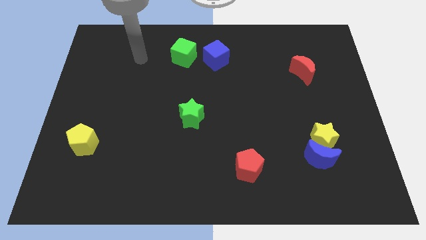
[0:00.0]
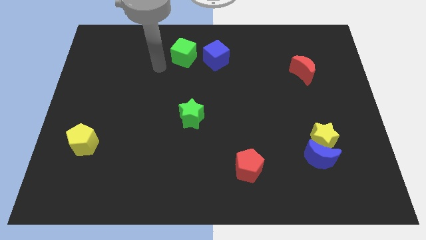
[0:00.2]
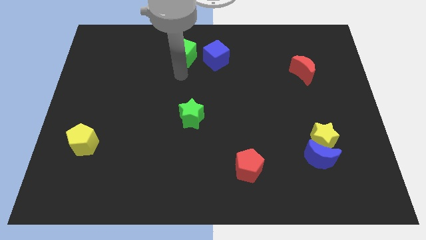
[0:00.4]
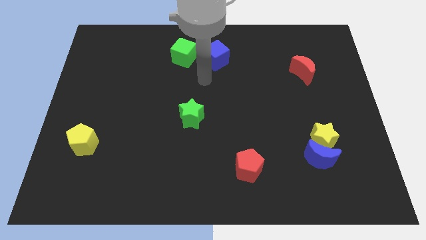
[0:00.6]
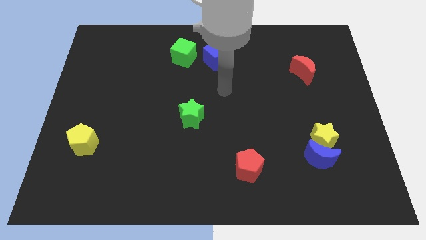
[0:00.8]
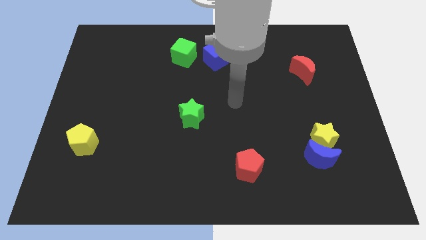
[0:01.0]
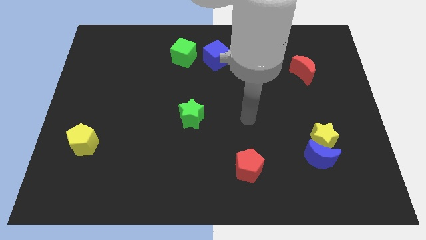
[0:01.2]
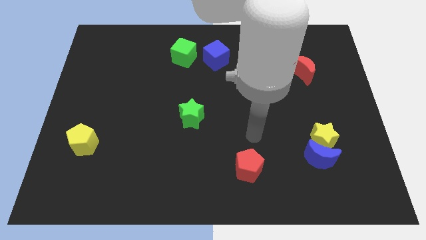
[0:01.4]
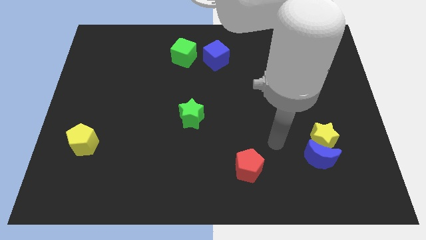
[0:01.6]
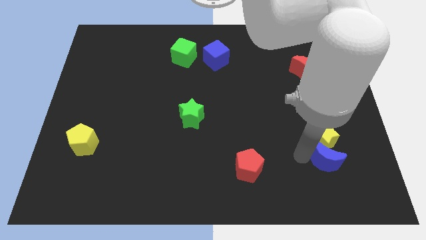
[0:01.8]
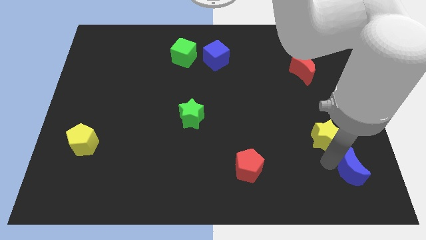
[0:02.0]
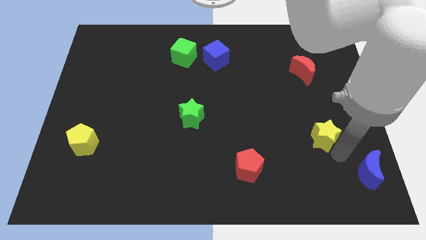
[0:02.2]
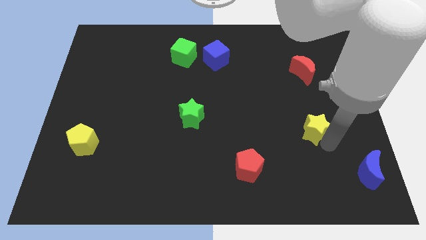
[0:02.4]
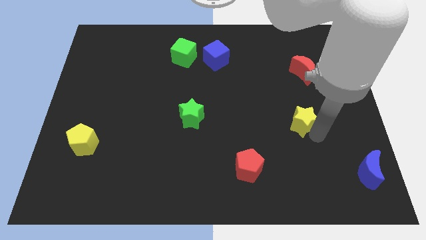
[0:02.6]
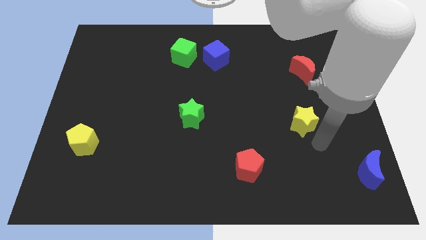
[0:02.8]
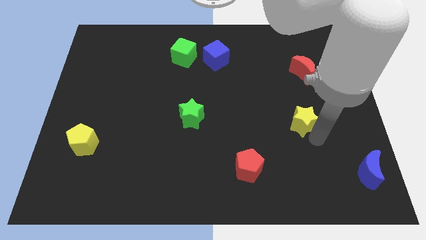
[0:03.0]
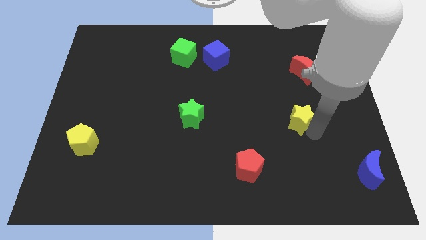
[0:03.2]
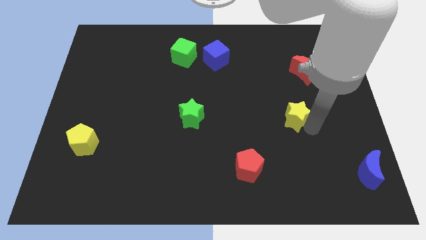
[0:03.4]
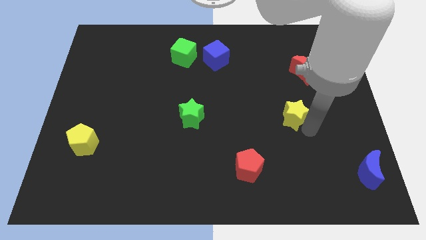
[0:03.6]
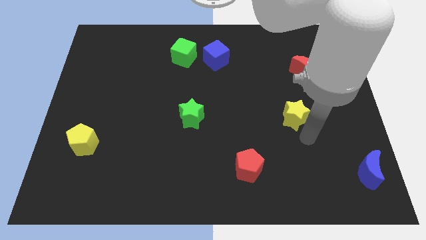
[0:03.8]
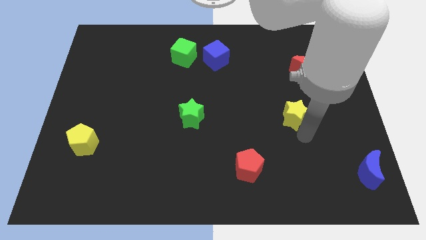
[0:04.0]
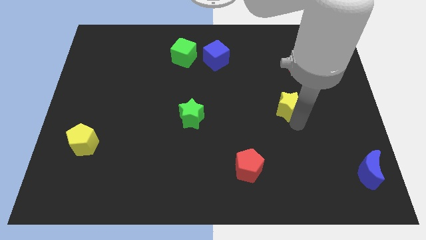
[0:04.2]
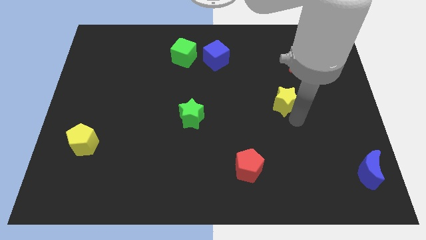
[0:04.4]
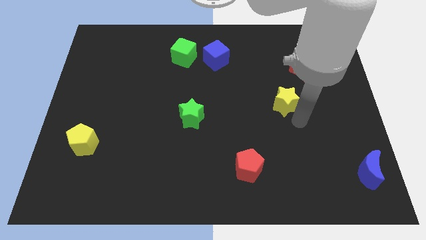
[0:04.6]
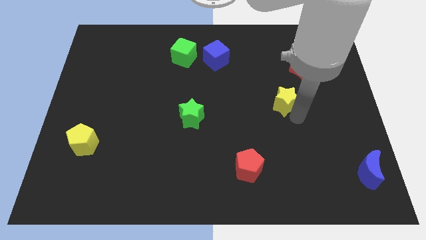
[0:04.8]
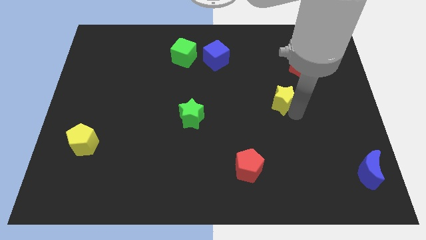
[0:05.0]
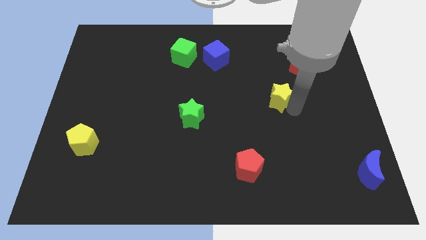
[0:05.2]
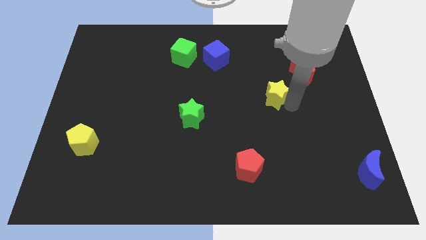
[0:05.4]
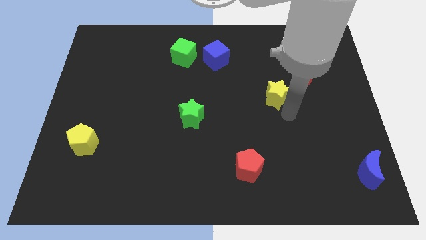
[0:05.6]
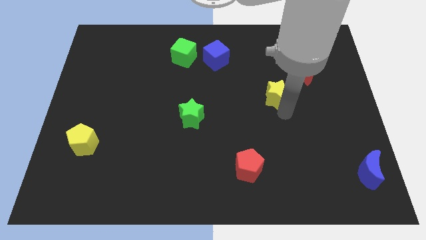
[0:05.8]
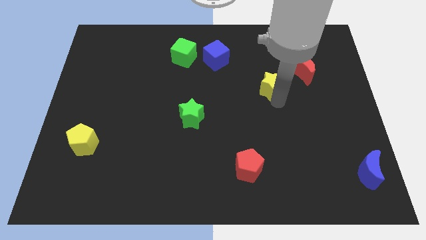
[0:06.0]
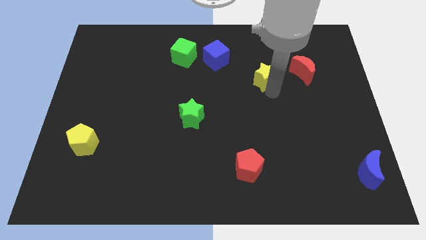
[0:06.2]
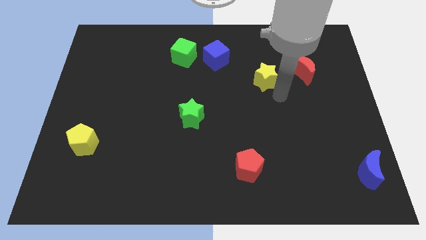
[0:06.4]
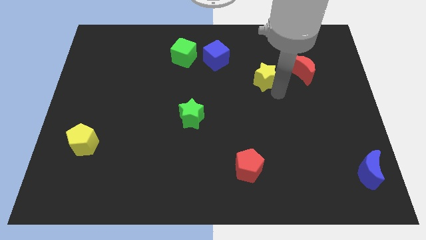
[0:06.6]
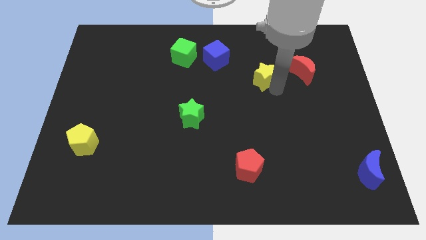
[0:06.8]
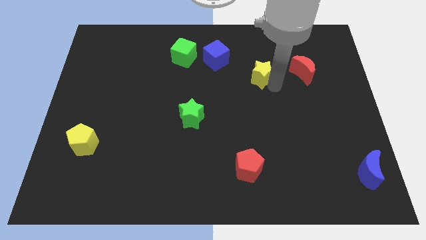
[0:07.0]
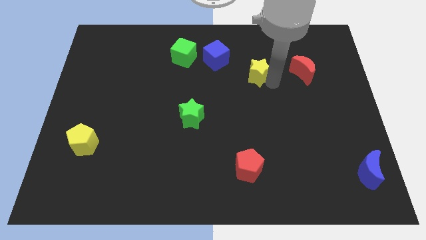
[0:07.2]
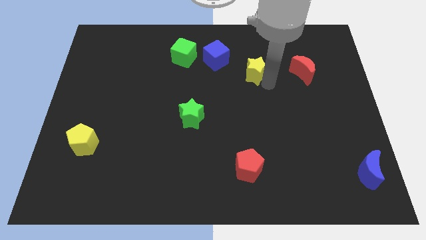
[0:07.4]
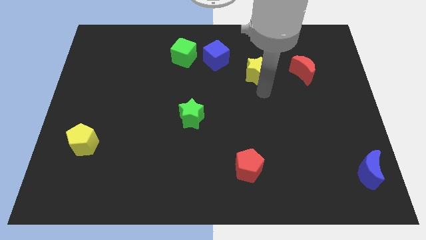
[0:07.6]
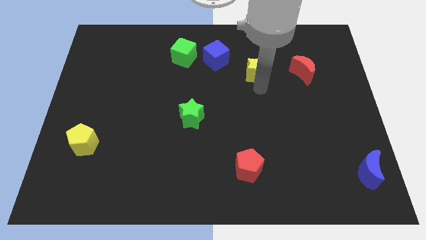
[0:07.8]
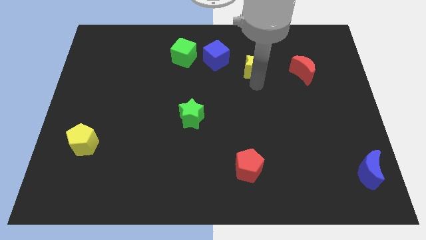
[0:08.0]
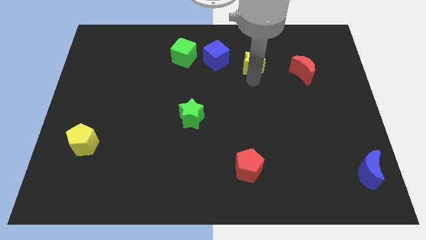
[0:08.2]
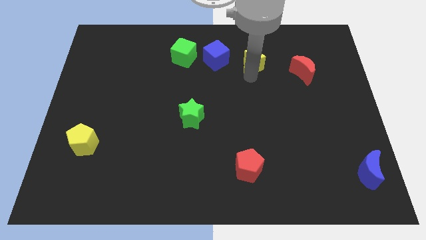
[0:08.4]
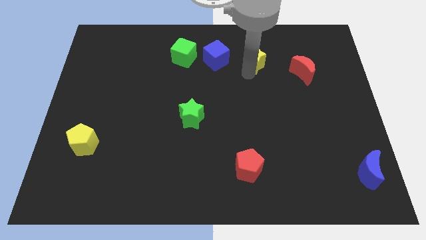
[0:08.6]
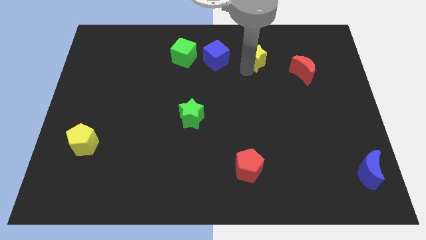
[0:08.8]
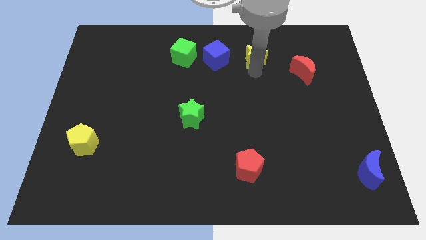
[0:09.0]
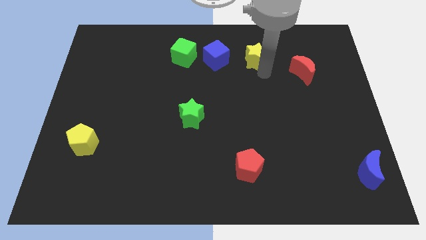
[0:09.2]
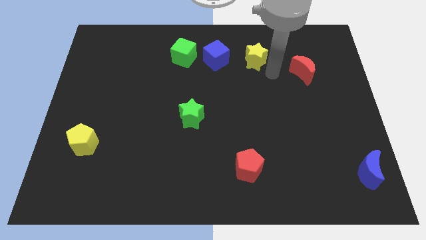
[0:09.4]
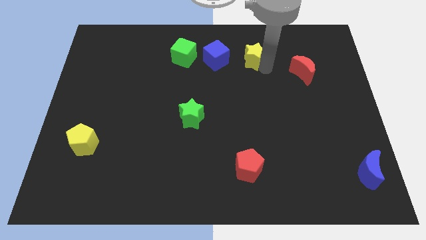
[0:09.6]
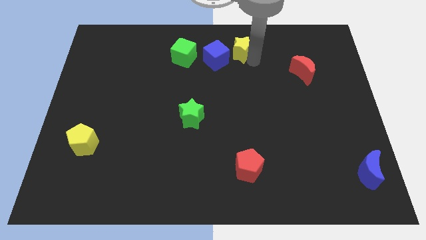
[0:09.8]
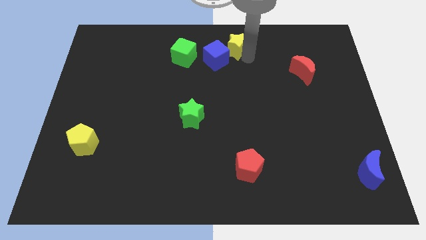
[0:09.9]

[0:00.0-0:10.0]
slide the yellow star to the towards your base

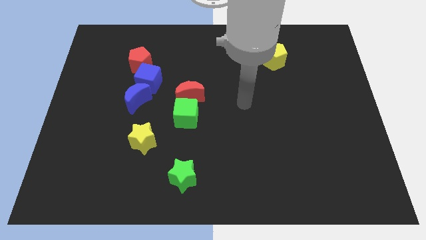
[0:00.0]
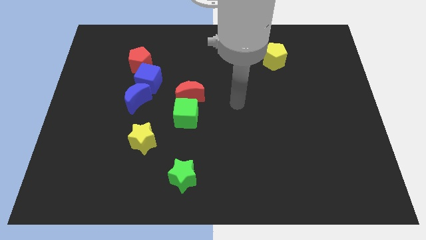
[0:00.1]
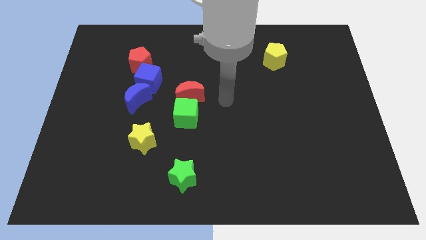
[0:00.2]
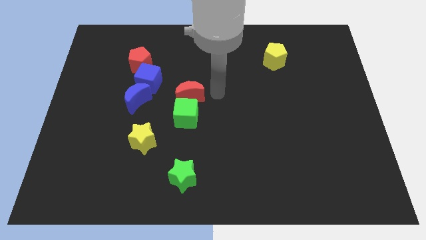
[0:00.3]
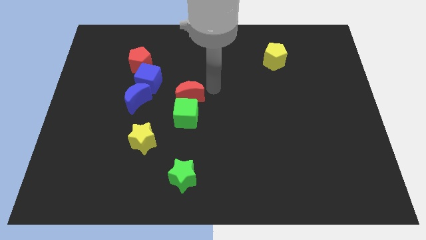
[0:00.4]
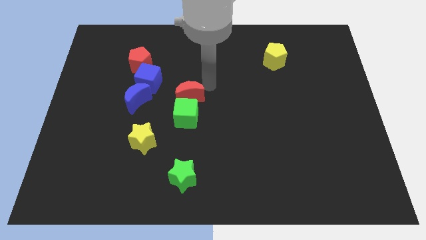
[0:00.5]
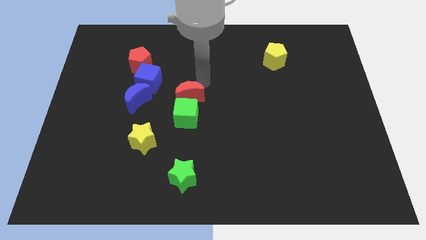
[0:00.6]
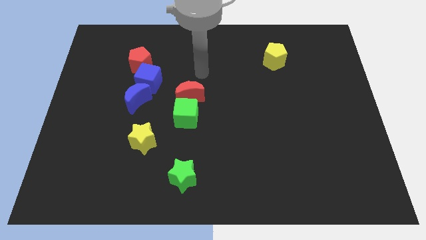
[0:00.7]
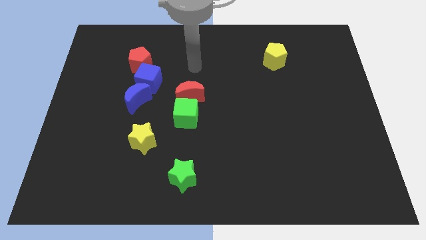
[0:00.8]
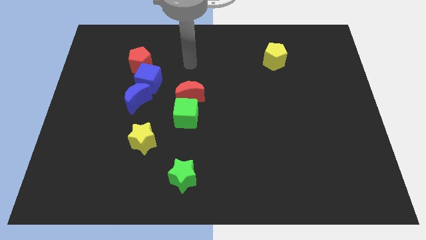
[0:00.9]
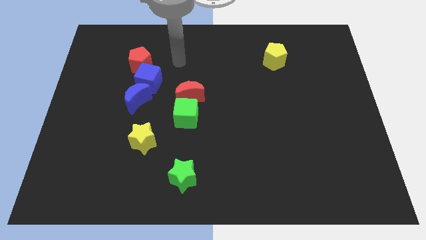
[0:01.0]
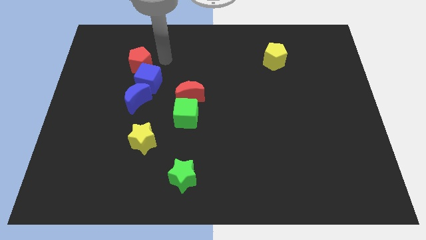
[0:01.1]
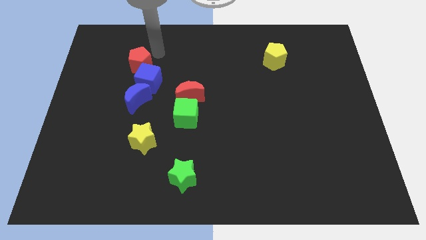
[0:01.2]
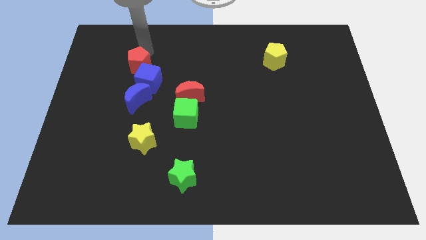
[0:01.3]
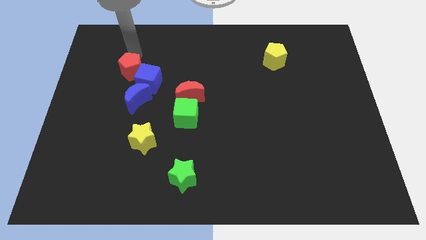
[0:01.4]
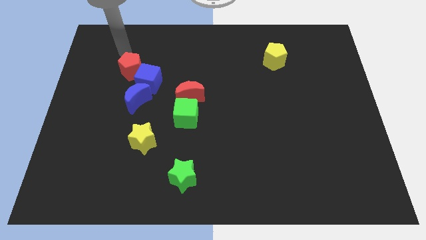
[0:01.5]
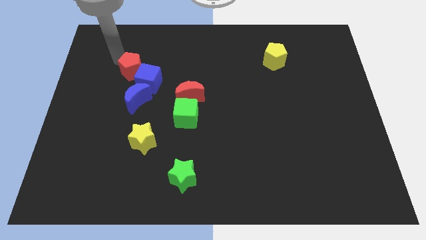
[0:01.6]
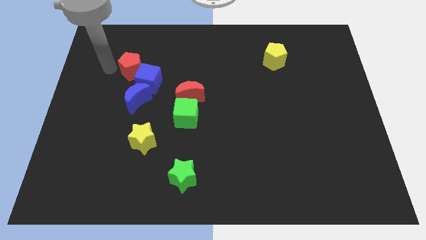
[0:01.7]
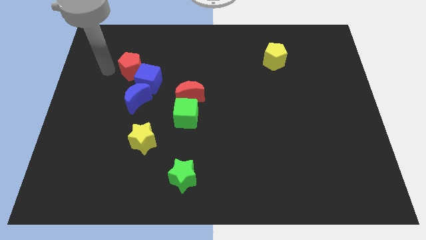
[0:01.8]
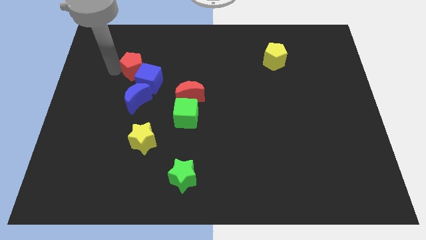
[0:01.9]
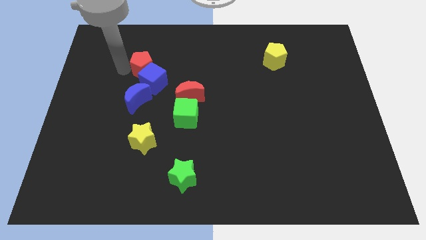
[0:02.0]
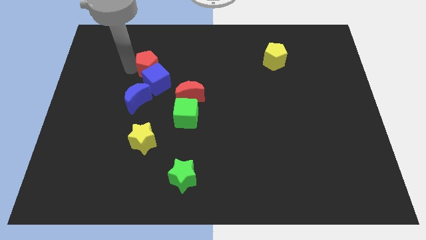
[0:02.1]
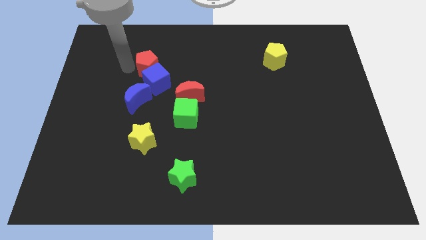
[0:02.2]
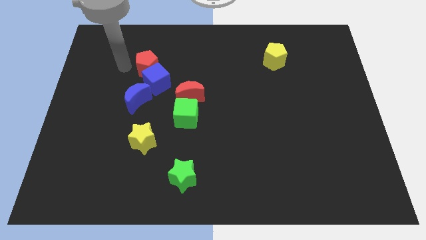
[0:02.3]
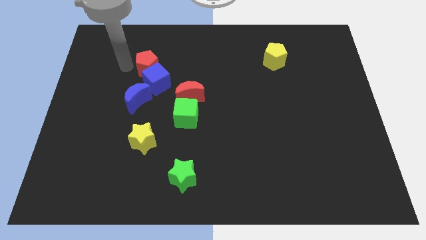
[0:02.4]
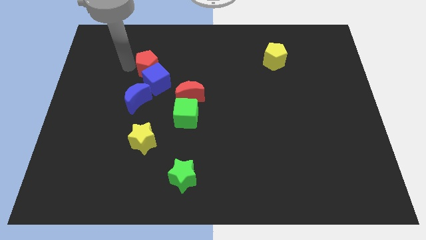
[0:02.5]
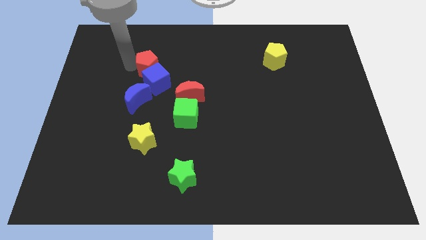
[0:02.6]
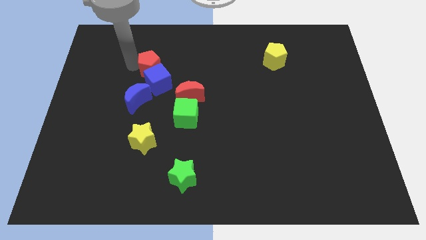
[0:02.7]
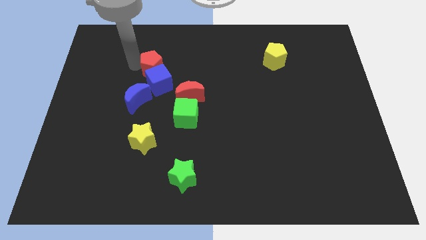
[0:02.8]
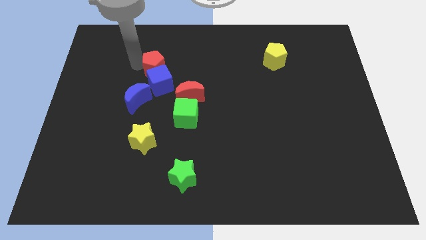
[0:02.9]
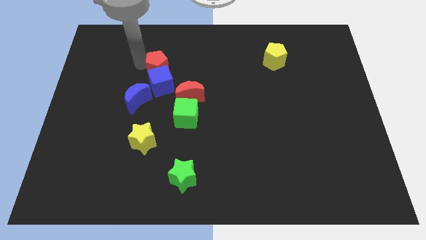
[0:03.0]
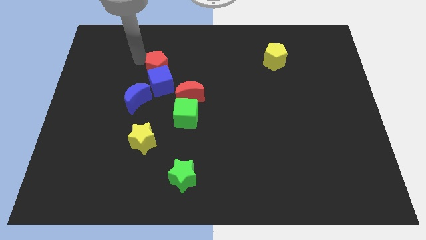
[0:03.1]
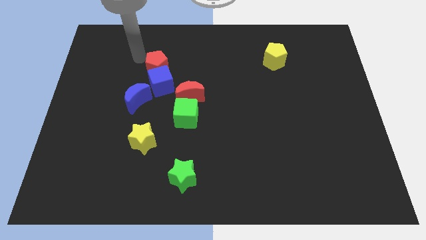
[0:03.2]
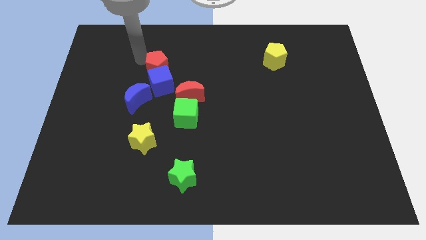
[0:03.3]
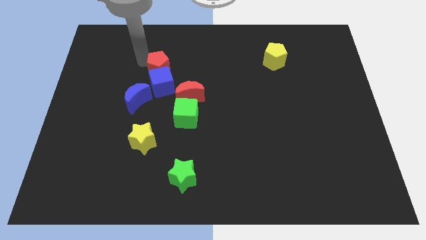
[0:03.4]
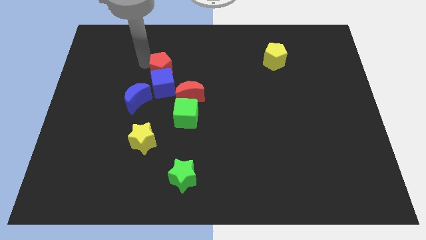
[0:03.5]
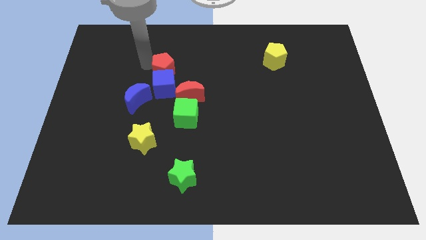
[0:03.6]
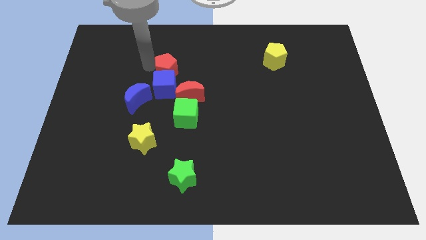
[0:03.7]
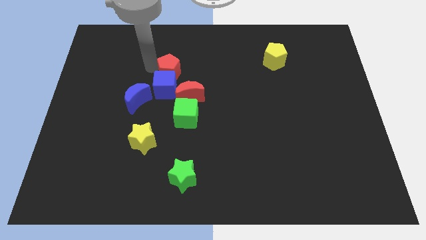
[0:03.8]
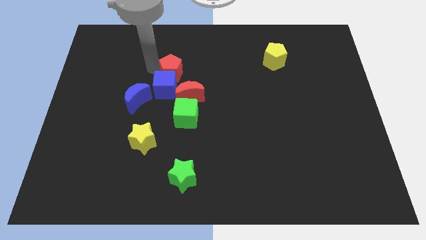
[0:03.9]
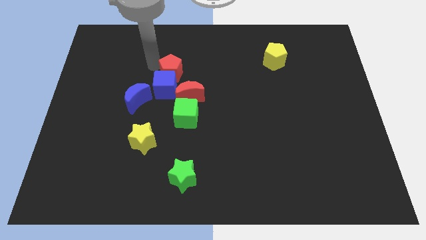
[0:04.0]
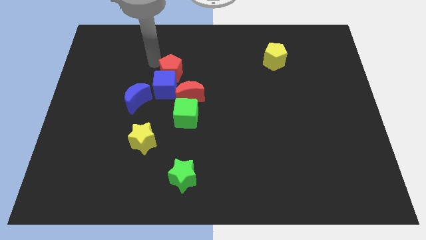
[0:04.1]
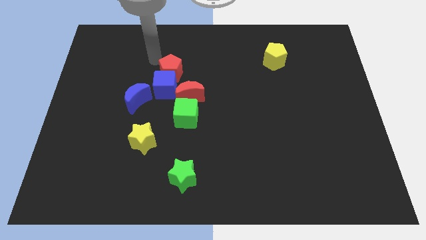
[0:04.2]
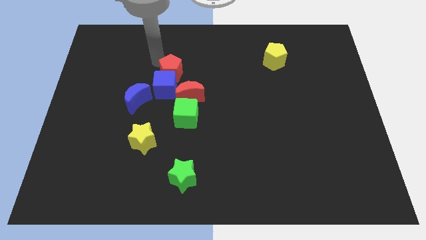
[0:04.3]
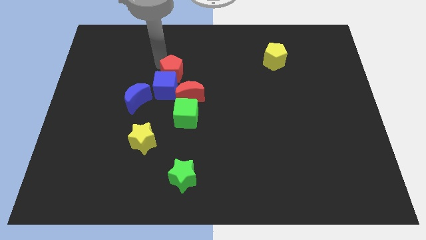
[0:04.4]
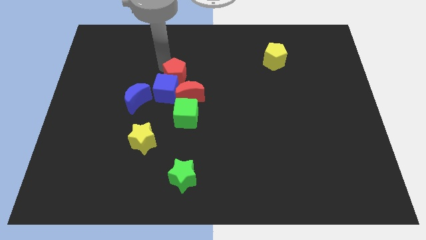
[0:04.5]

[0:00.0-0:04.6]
slide the red pentagon to the center
